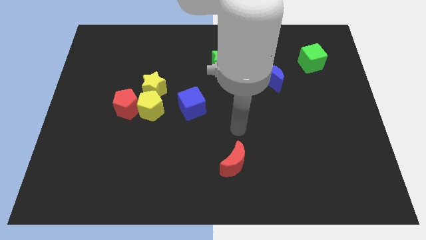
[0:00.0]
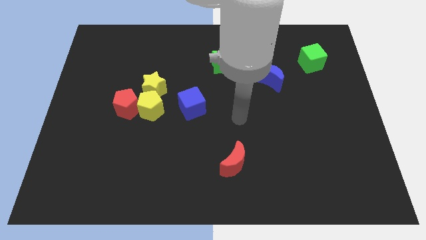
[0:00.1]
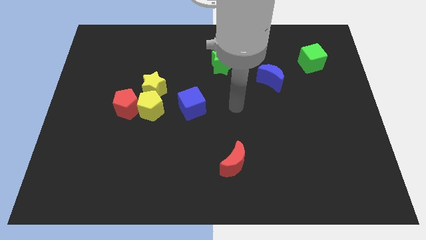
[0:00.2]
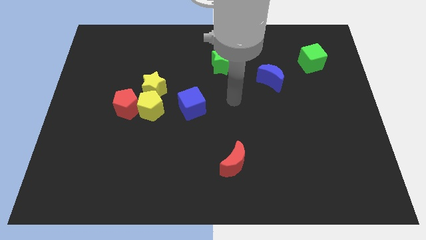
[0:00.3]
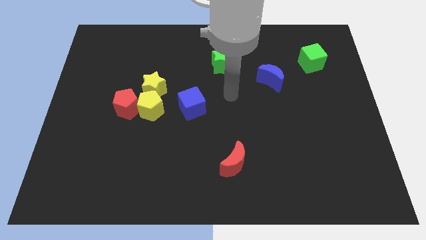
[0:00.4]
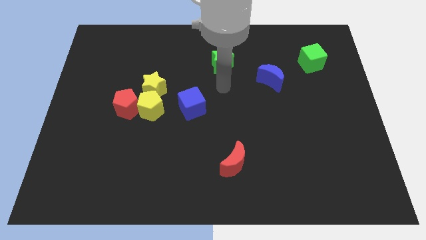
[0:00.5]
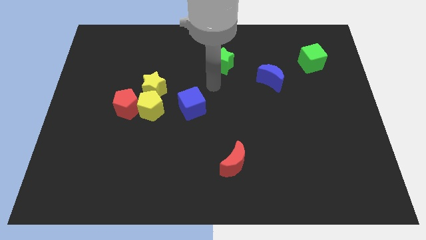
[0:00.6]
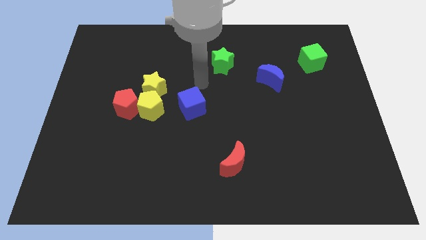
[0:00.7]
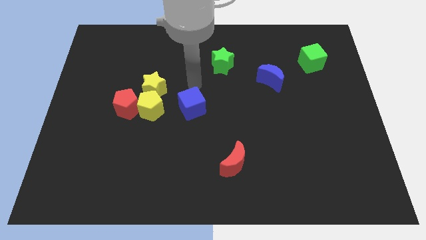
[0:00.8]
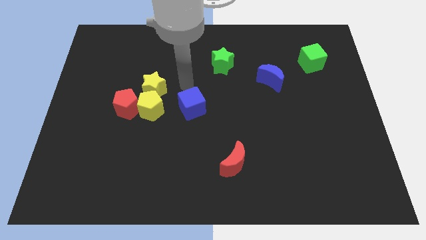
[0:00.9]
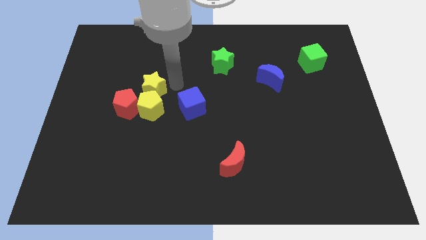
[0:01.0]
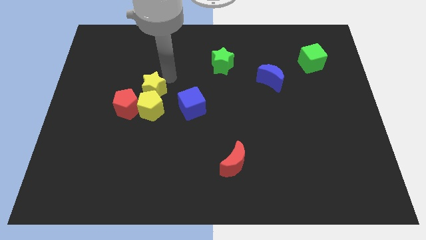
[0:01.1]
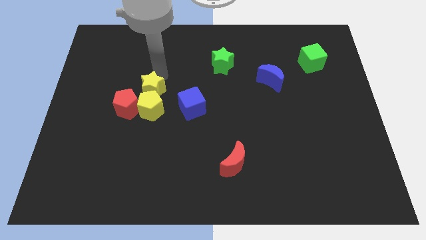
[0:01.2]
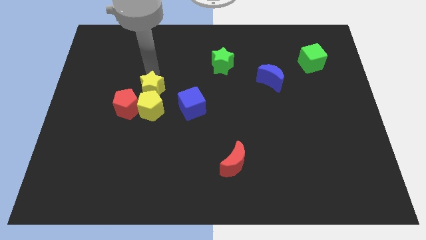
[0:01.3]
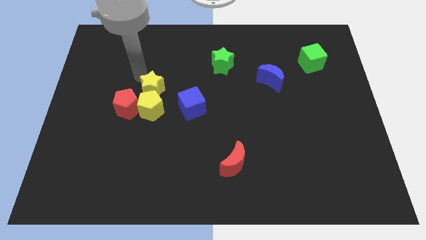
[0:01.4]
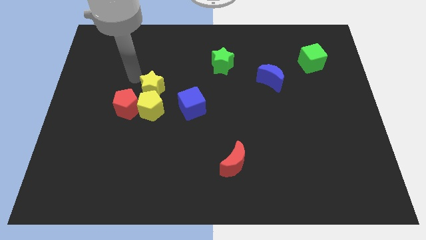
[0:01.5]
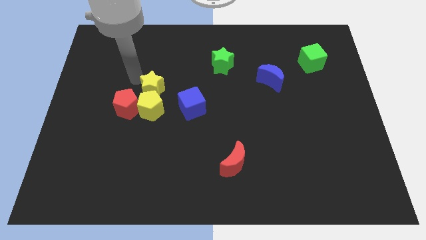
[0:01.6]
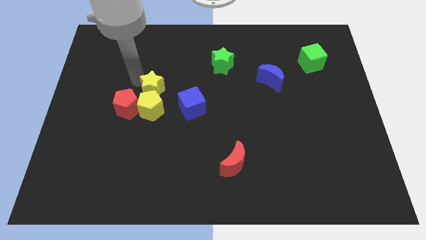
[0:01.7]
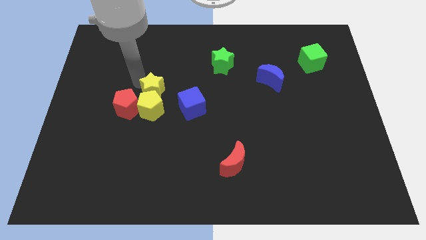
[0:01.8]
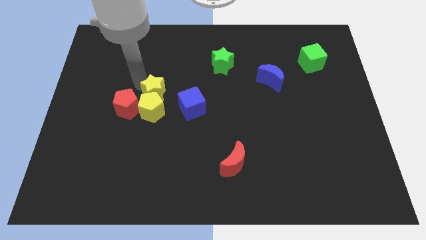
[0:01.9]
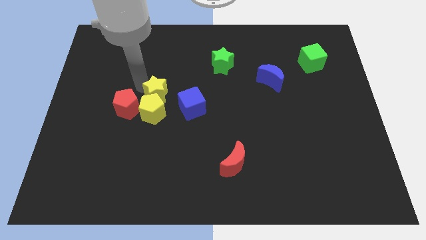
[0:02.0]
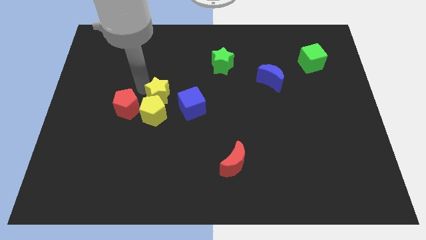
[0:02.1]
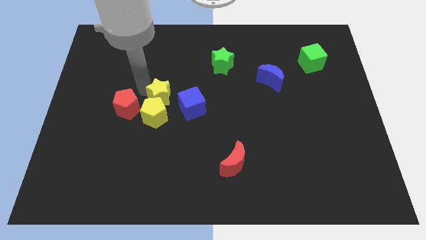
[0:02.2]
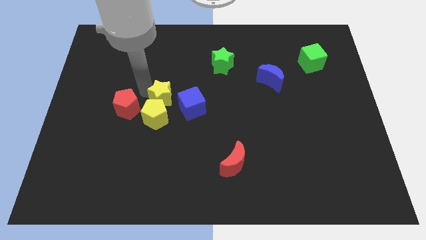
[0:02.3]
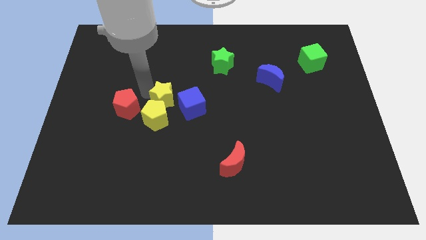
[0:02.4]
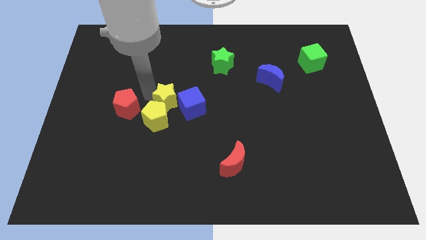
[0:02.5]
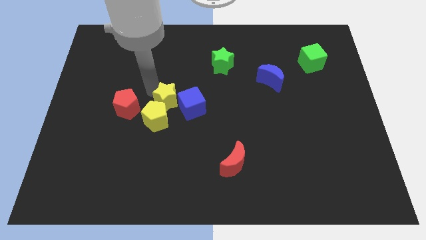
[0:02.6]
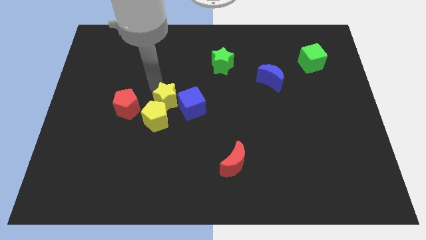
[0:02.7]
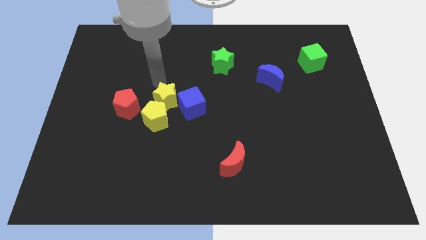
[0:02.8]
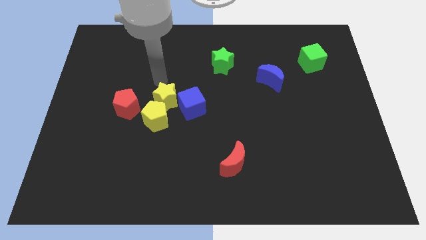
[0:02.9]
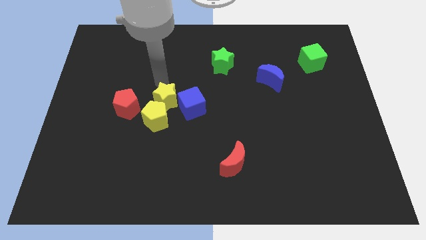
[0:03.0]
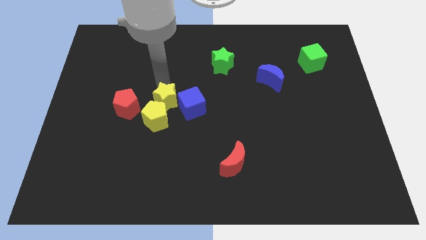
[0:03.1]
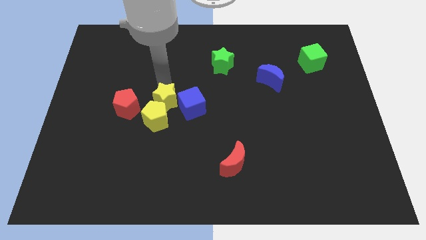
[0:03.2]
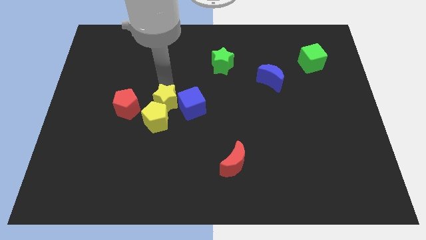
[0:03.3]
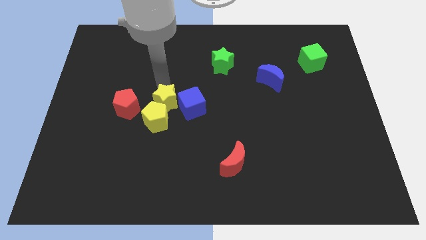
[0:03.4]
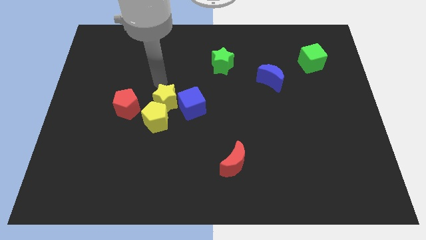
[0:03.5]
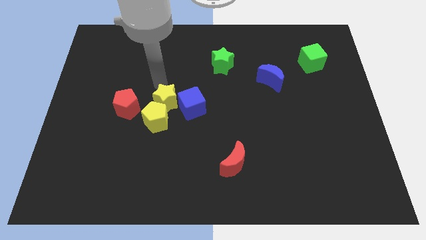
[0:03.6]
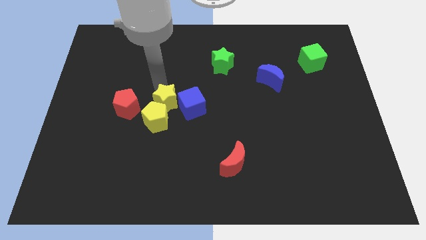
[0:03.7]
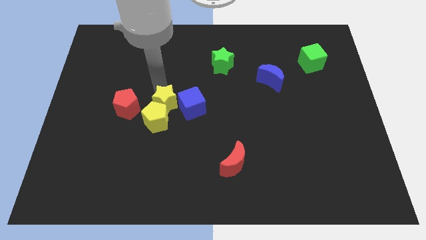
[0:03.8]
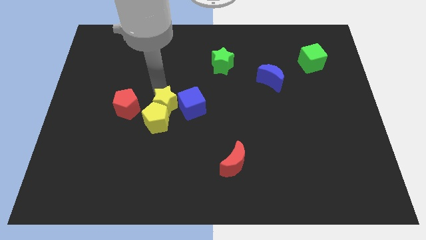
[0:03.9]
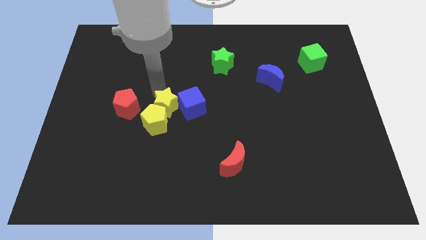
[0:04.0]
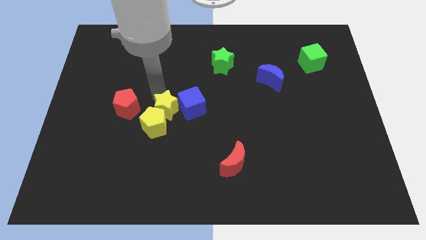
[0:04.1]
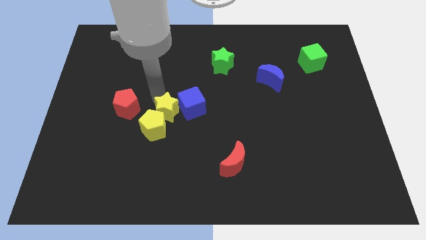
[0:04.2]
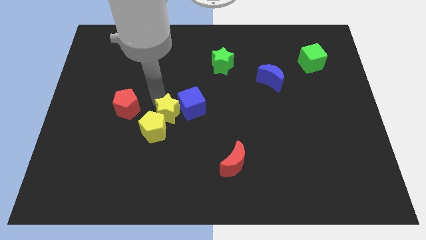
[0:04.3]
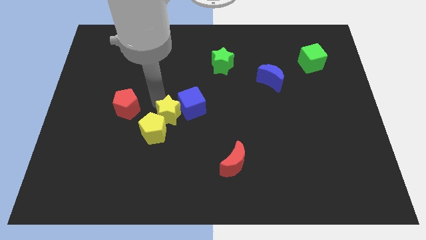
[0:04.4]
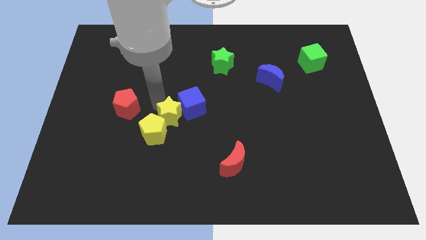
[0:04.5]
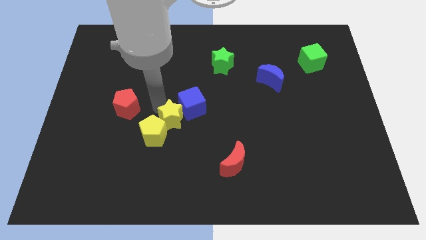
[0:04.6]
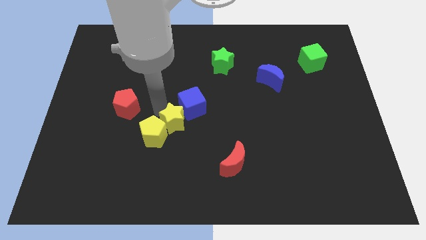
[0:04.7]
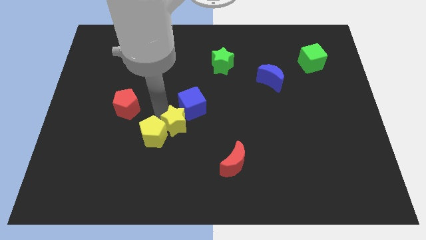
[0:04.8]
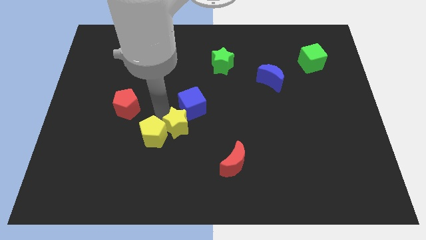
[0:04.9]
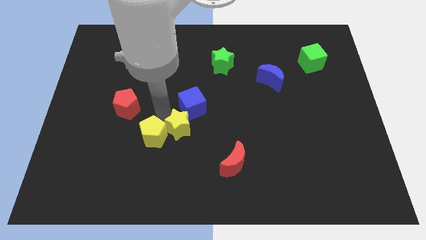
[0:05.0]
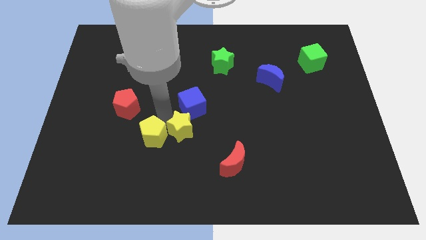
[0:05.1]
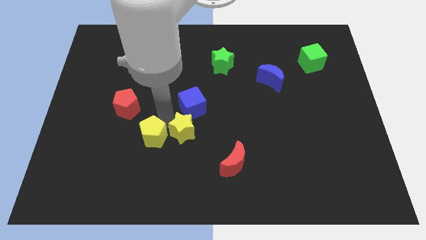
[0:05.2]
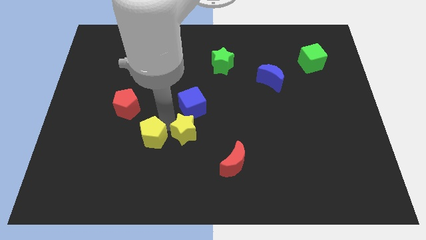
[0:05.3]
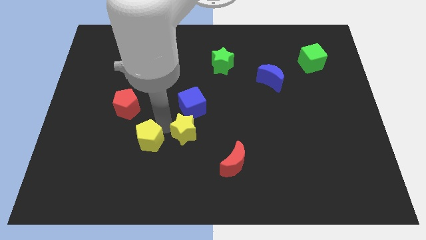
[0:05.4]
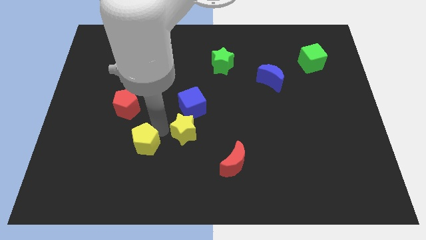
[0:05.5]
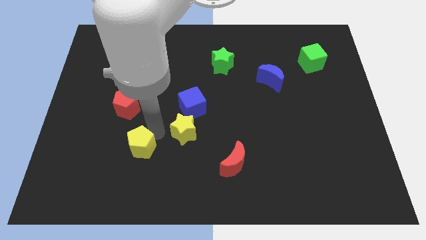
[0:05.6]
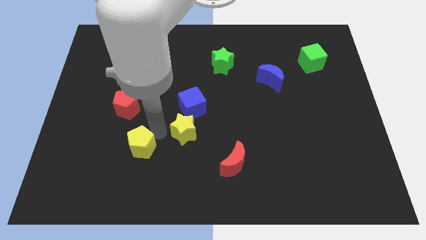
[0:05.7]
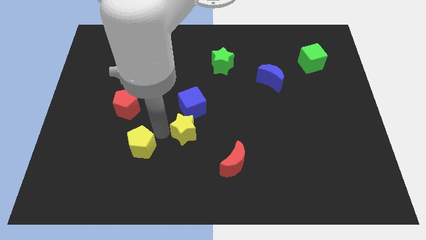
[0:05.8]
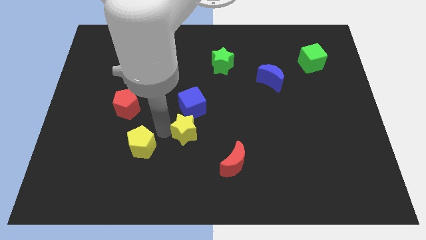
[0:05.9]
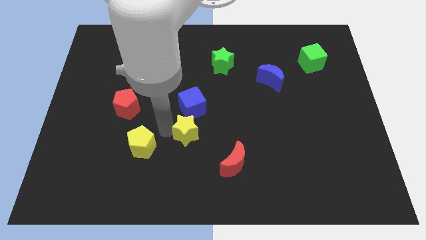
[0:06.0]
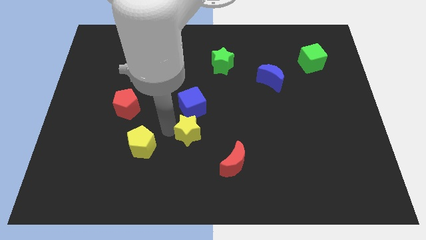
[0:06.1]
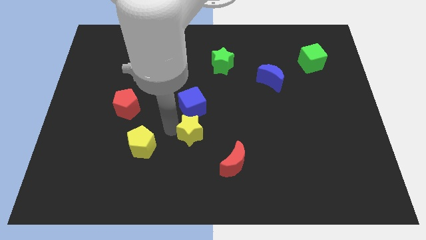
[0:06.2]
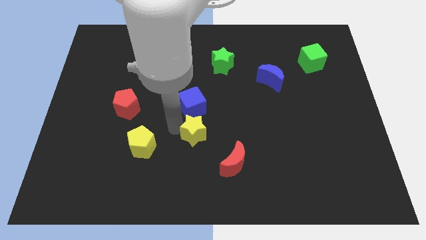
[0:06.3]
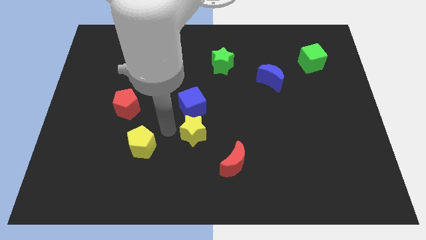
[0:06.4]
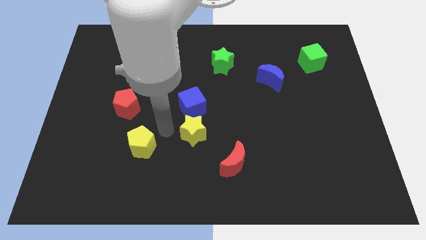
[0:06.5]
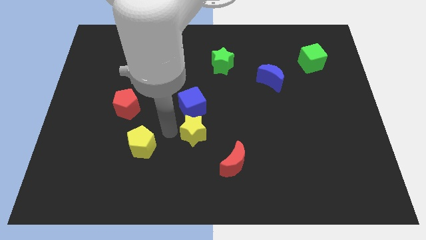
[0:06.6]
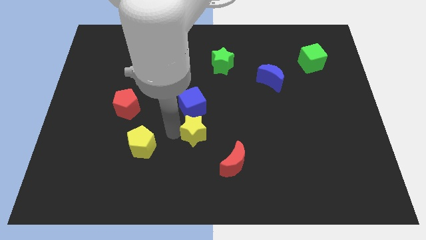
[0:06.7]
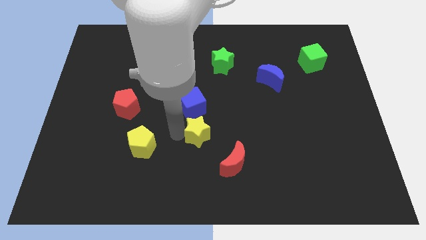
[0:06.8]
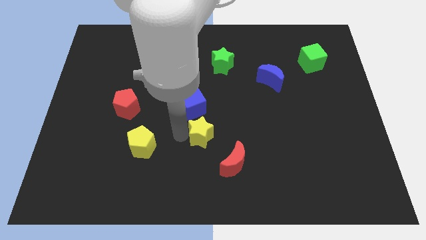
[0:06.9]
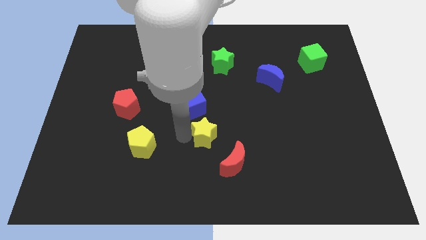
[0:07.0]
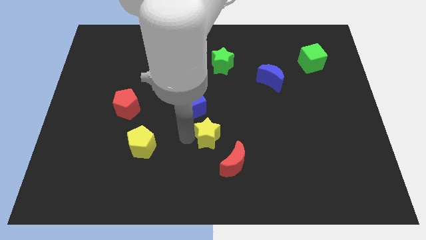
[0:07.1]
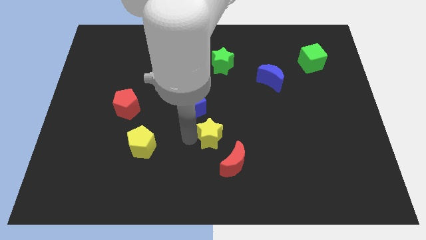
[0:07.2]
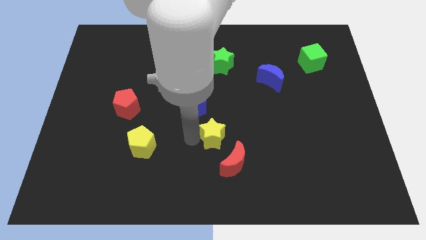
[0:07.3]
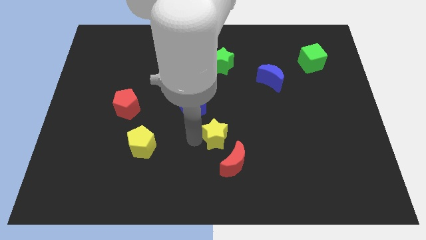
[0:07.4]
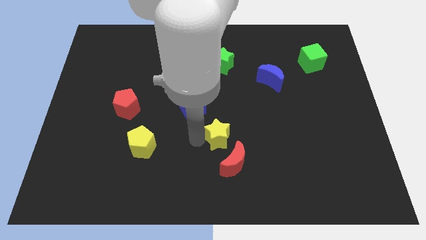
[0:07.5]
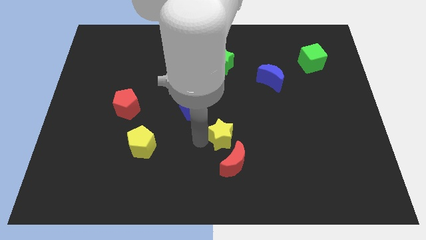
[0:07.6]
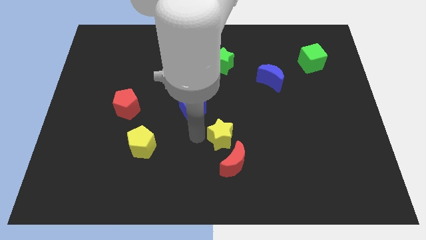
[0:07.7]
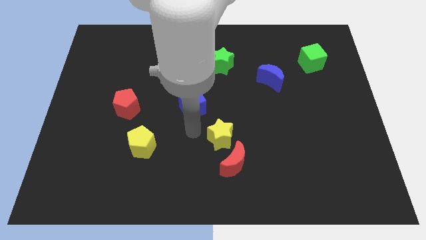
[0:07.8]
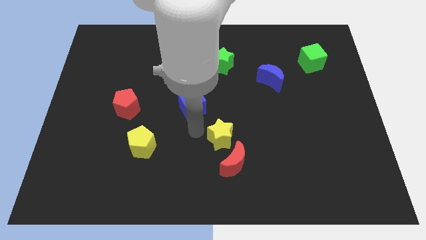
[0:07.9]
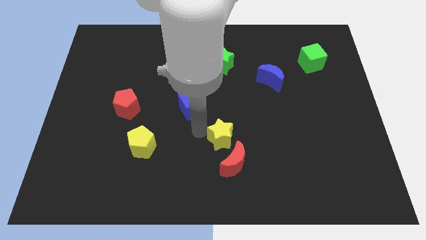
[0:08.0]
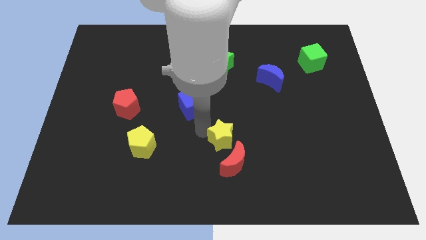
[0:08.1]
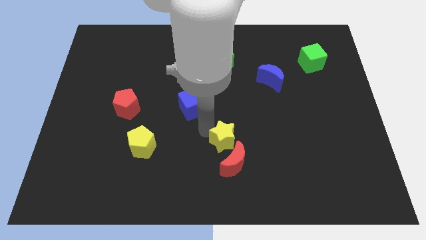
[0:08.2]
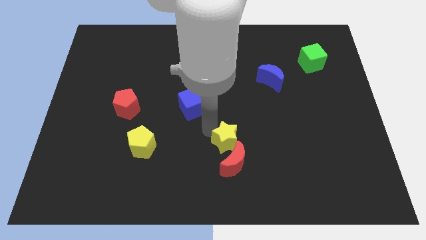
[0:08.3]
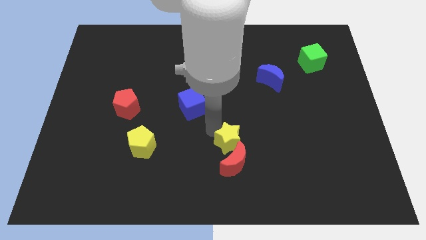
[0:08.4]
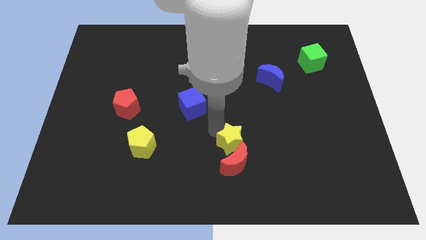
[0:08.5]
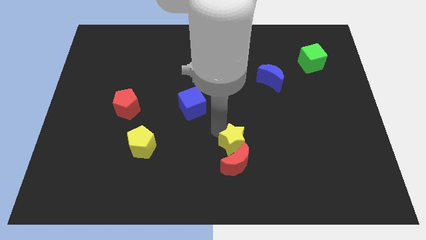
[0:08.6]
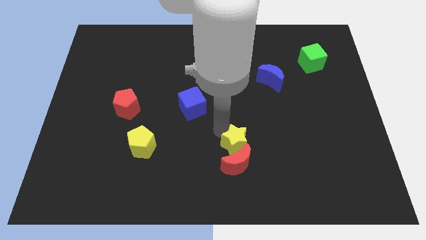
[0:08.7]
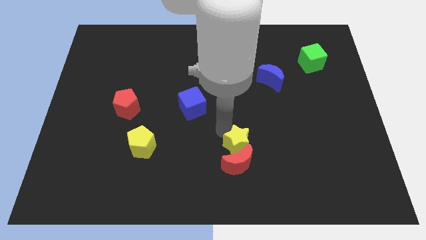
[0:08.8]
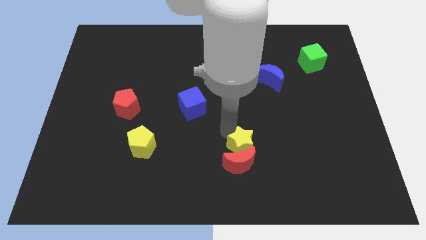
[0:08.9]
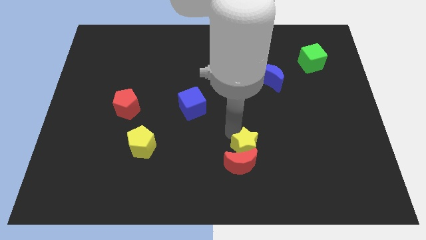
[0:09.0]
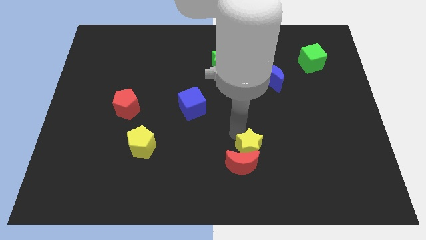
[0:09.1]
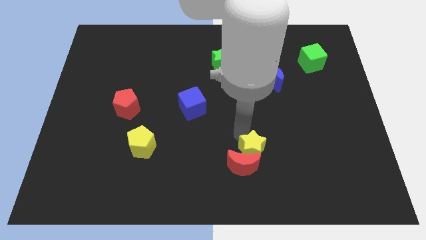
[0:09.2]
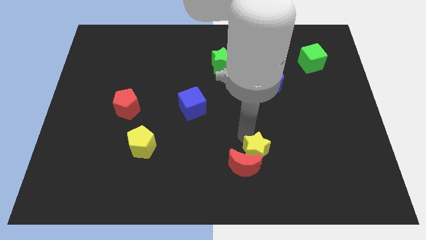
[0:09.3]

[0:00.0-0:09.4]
push the yellow star right of the red moon
